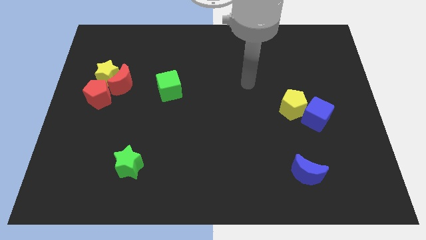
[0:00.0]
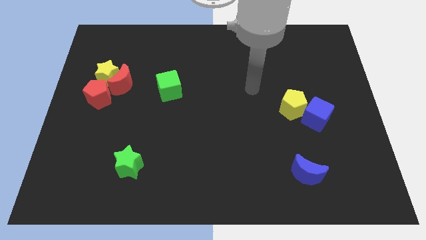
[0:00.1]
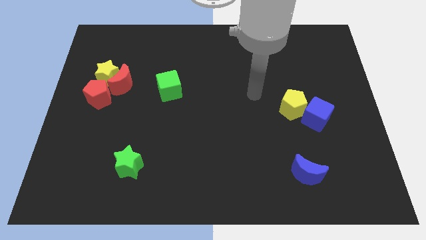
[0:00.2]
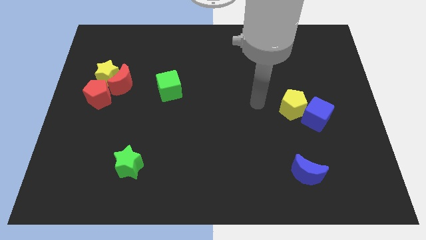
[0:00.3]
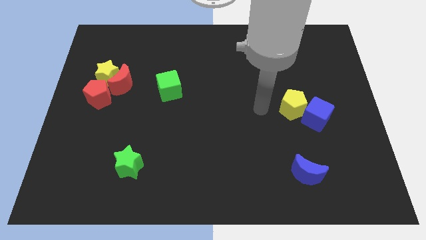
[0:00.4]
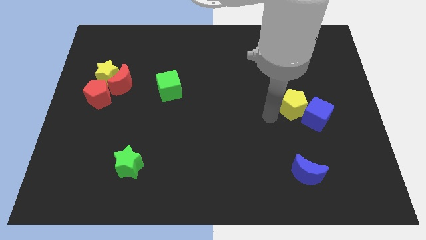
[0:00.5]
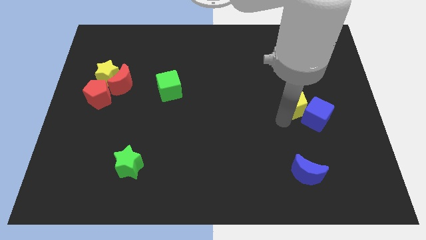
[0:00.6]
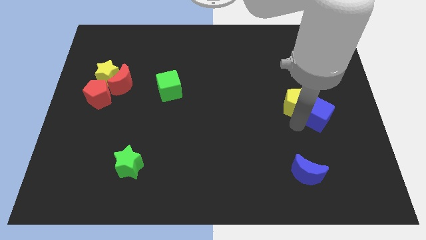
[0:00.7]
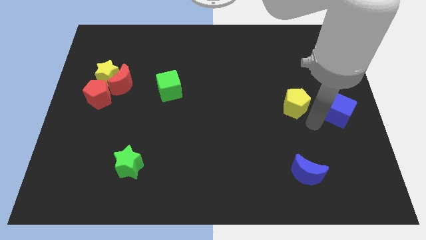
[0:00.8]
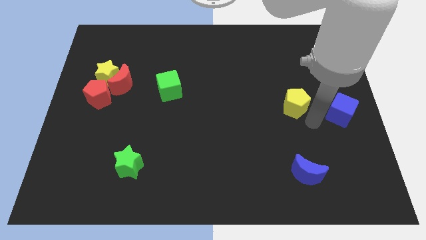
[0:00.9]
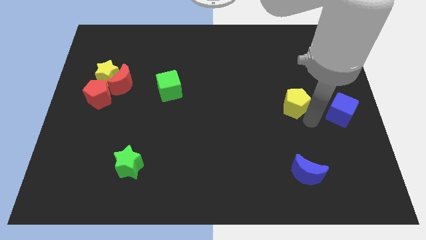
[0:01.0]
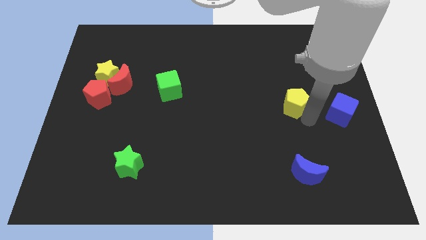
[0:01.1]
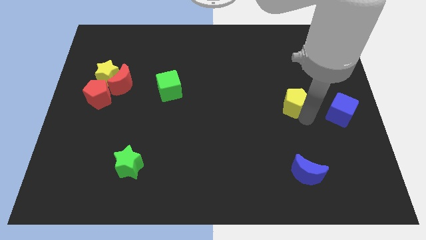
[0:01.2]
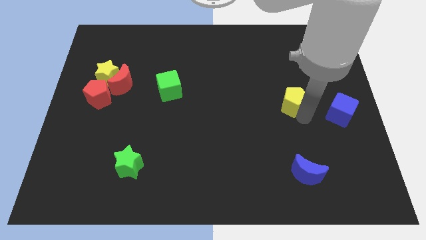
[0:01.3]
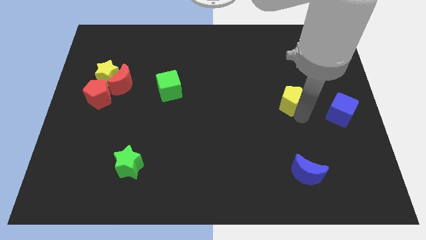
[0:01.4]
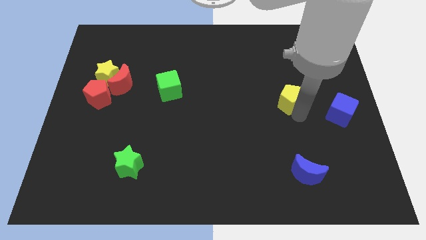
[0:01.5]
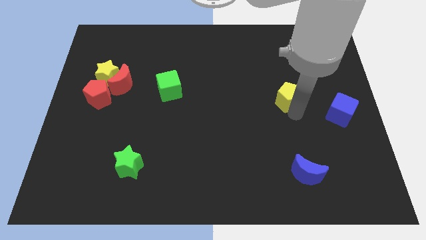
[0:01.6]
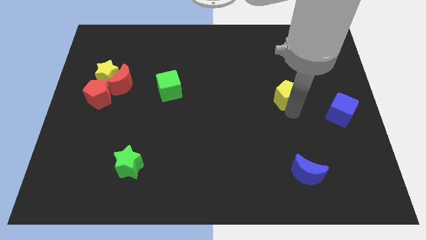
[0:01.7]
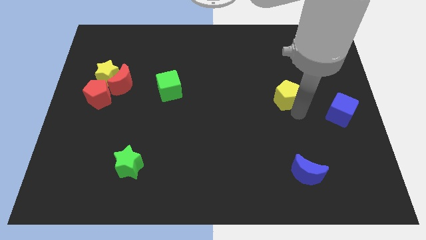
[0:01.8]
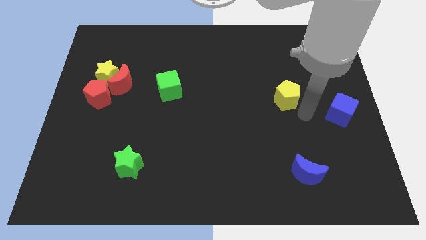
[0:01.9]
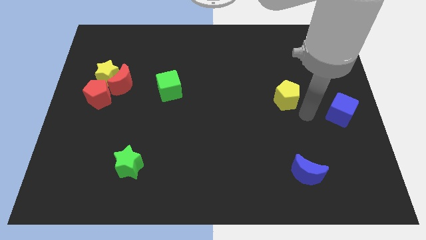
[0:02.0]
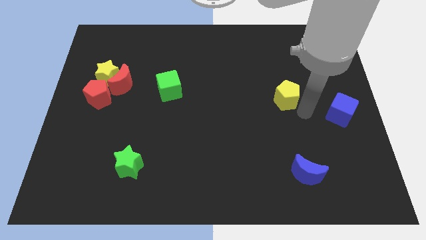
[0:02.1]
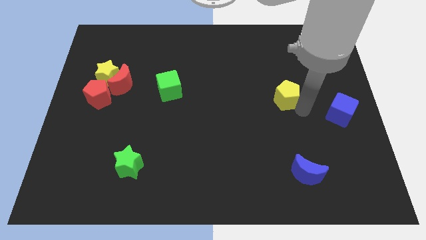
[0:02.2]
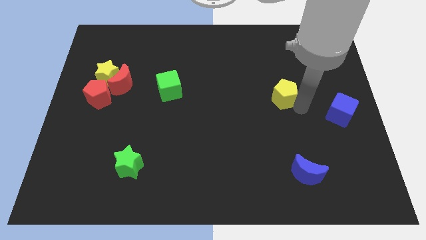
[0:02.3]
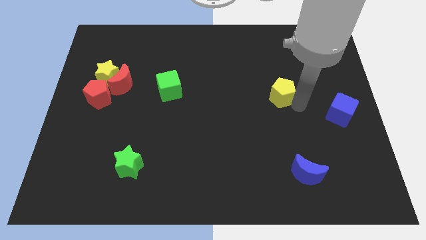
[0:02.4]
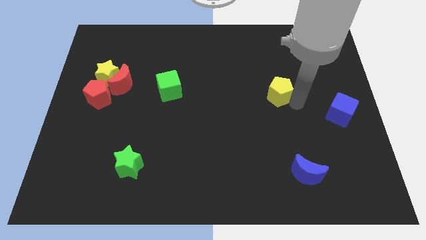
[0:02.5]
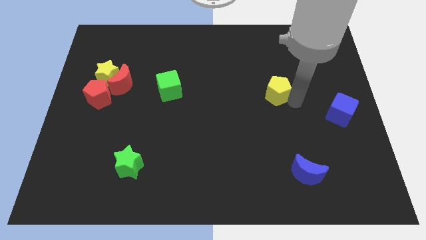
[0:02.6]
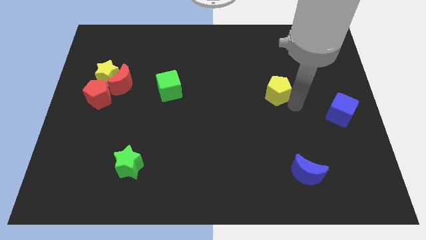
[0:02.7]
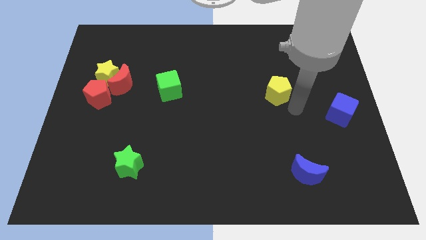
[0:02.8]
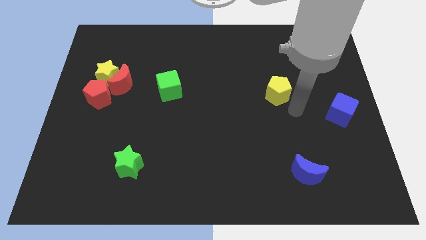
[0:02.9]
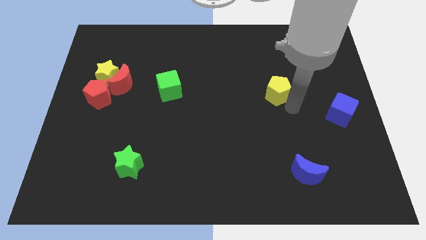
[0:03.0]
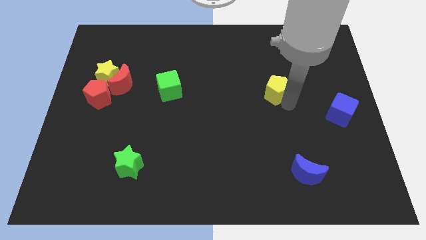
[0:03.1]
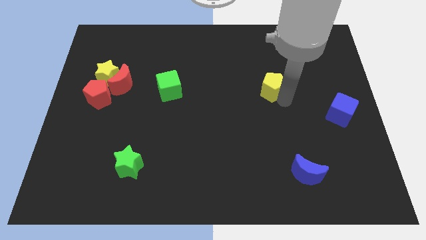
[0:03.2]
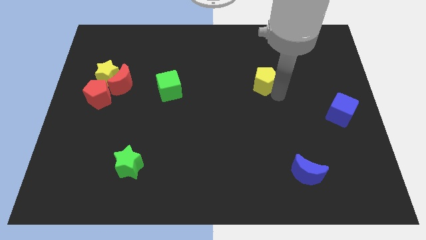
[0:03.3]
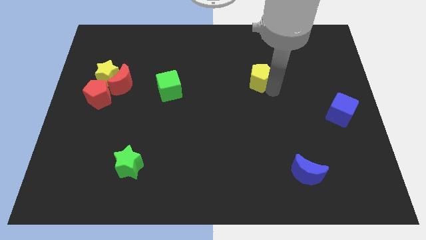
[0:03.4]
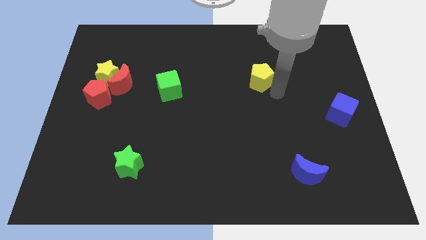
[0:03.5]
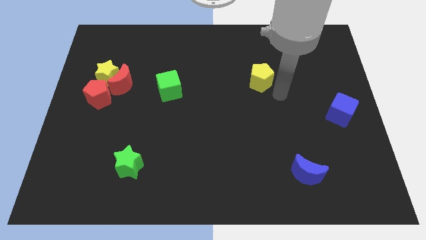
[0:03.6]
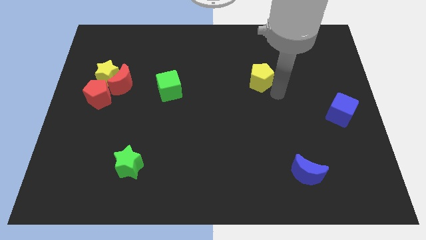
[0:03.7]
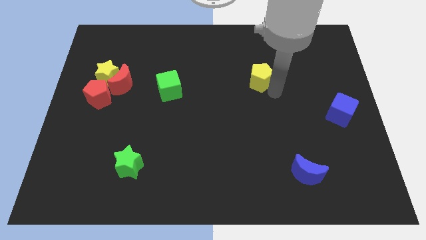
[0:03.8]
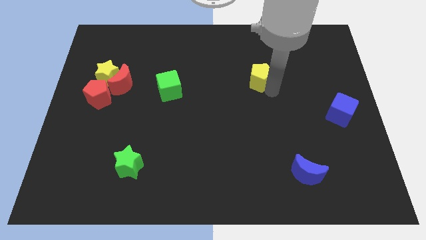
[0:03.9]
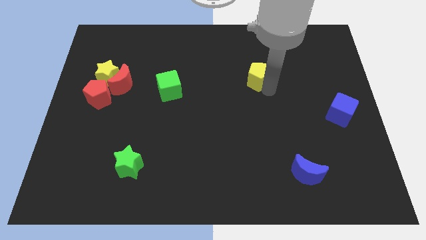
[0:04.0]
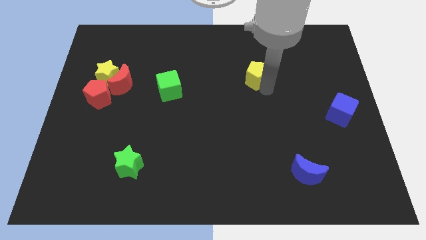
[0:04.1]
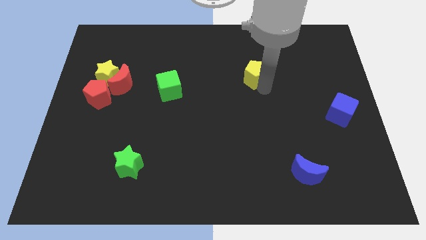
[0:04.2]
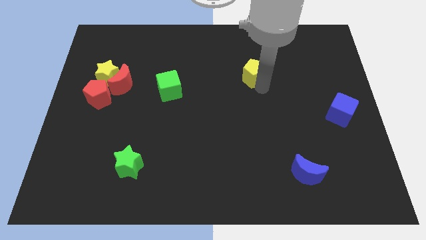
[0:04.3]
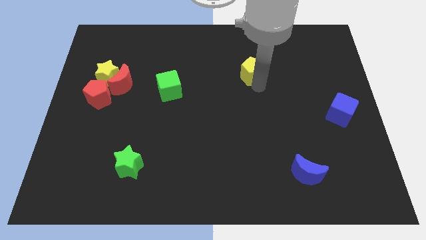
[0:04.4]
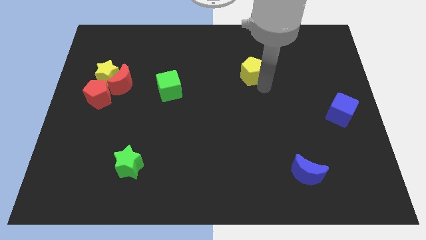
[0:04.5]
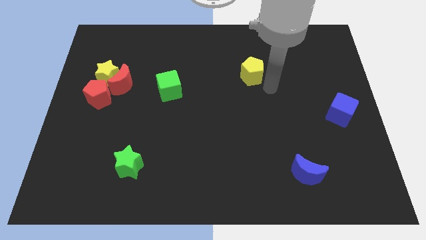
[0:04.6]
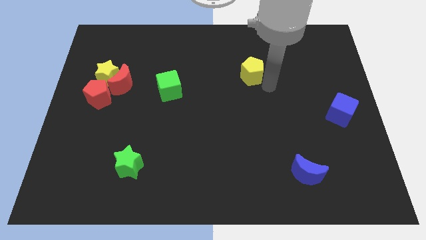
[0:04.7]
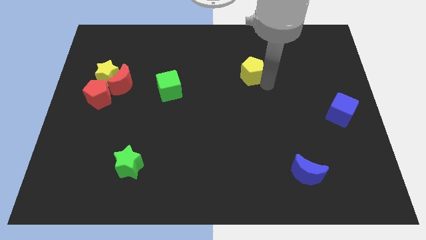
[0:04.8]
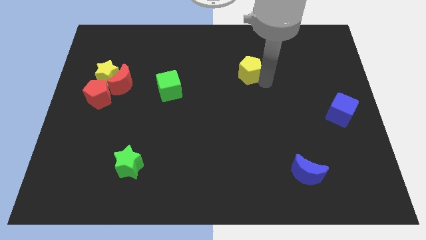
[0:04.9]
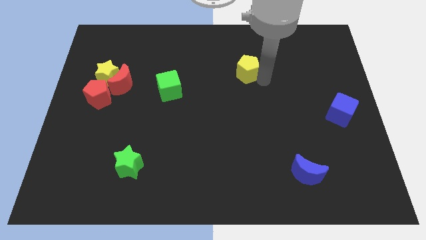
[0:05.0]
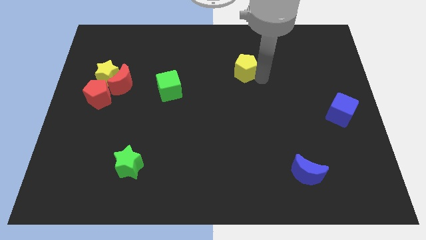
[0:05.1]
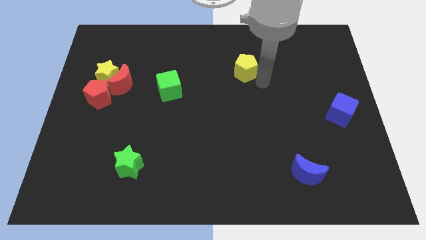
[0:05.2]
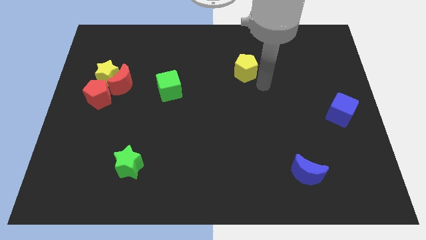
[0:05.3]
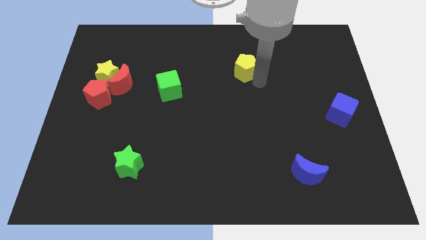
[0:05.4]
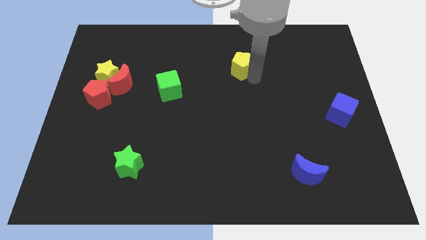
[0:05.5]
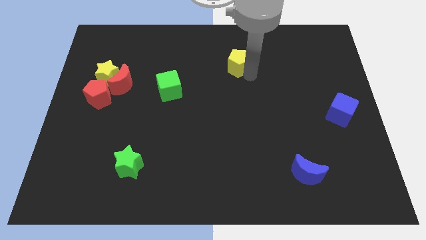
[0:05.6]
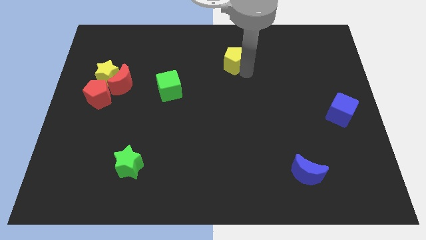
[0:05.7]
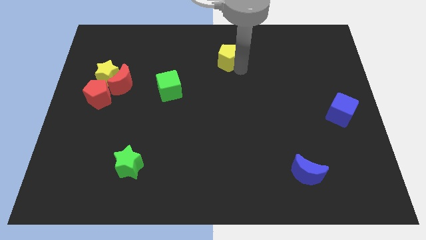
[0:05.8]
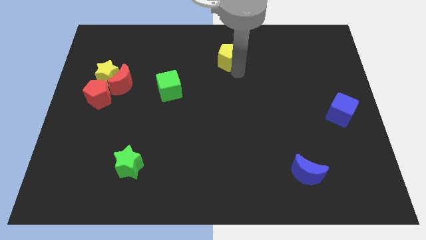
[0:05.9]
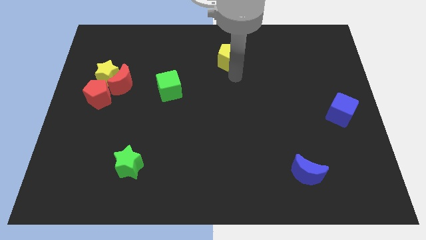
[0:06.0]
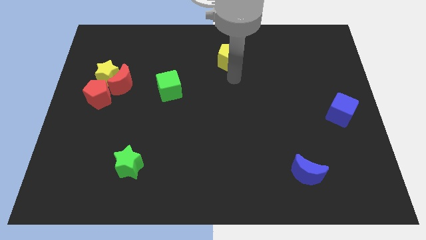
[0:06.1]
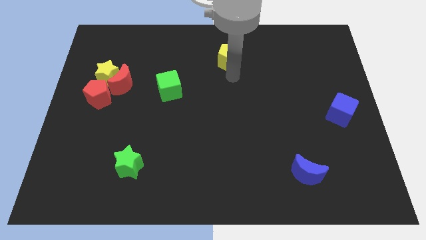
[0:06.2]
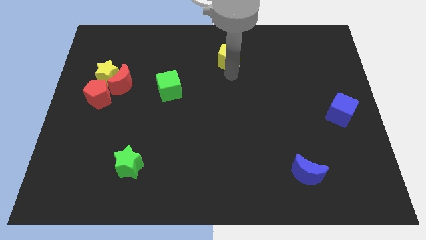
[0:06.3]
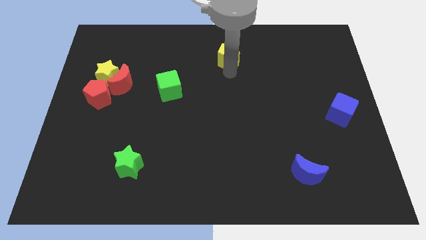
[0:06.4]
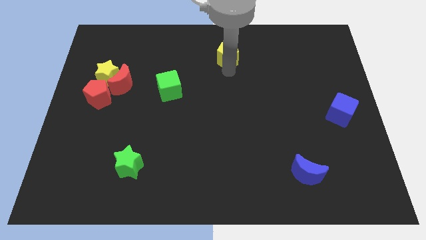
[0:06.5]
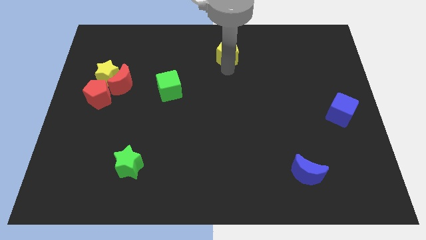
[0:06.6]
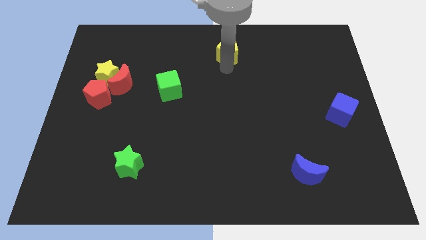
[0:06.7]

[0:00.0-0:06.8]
slide the yellow pentagon to the towards your base
